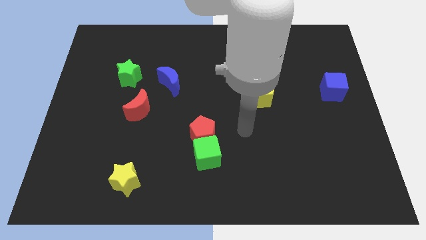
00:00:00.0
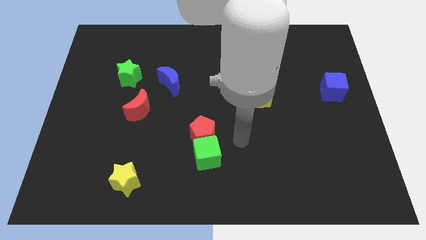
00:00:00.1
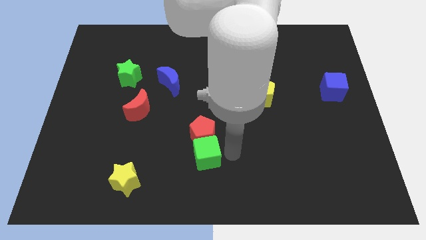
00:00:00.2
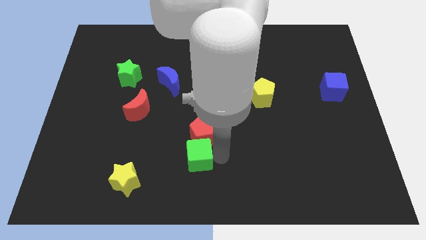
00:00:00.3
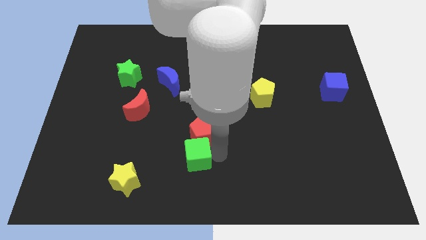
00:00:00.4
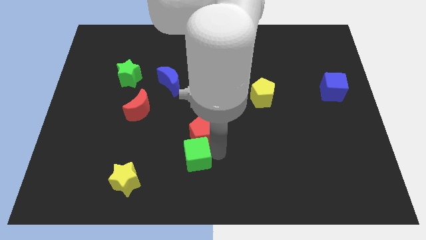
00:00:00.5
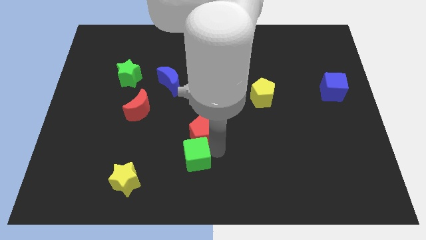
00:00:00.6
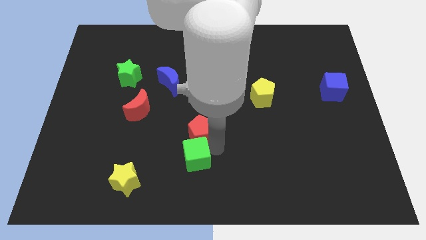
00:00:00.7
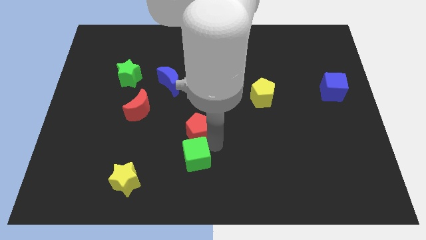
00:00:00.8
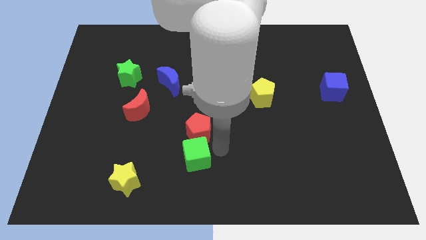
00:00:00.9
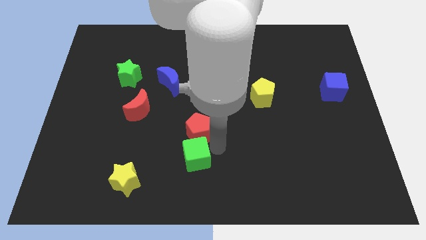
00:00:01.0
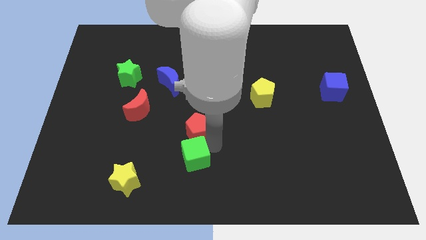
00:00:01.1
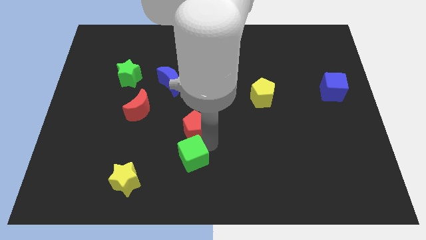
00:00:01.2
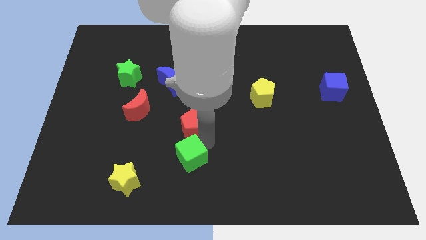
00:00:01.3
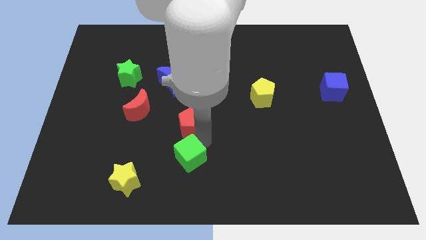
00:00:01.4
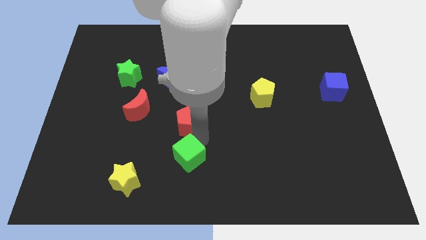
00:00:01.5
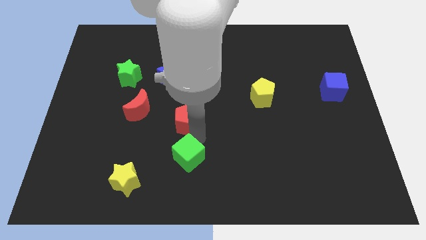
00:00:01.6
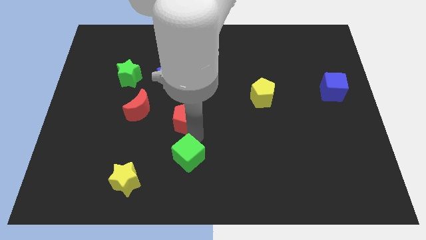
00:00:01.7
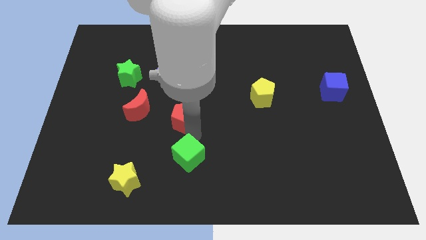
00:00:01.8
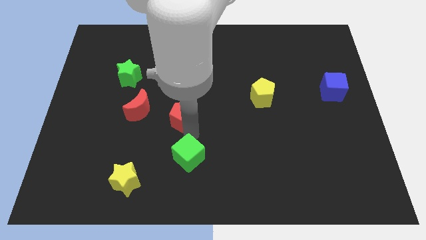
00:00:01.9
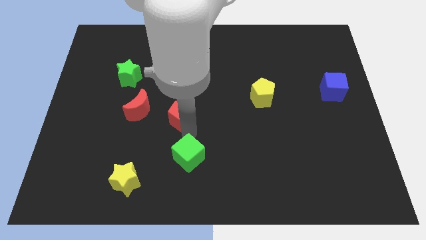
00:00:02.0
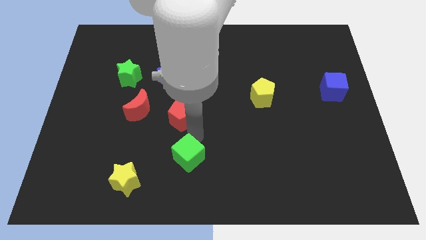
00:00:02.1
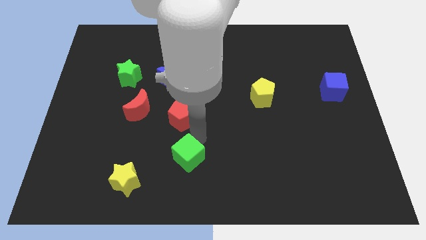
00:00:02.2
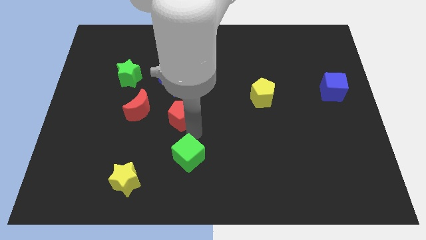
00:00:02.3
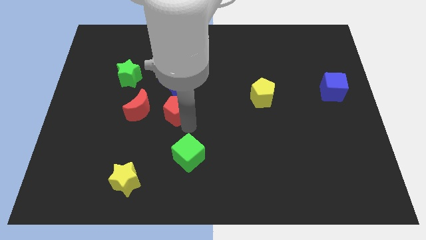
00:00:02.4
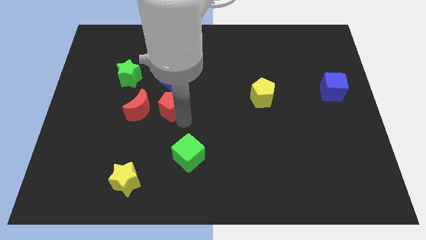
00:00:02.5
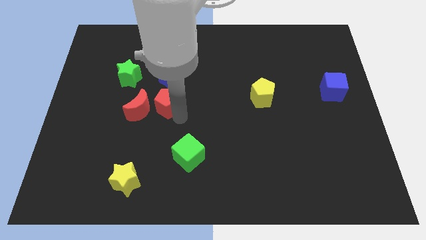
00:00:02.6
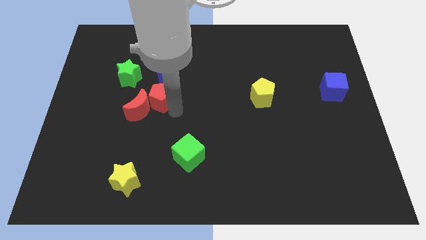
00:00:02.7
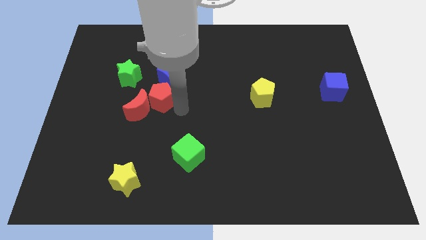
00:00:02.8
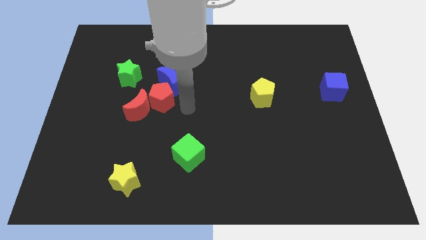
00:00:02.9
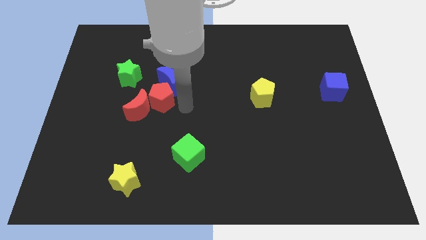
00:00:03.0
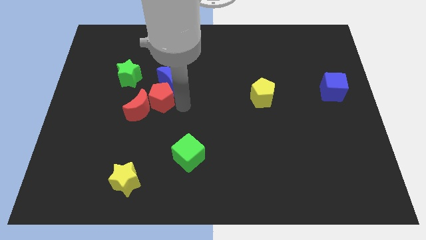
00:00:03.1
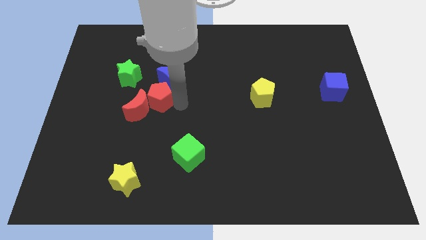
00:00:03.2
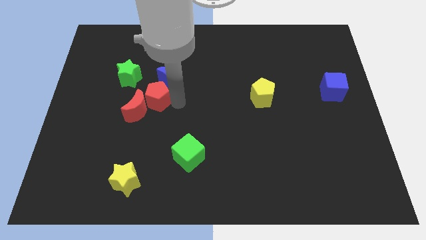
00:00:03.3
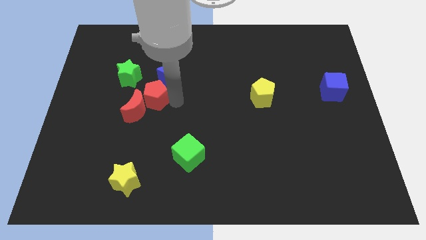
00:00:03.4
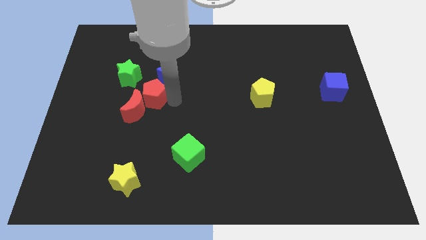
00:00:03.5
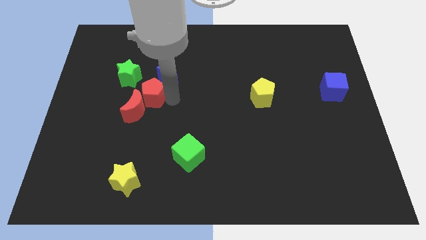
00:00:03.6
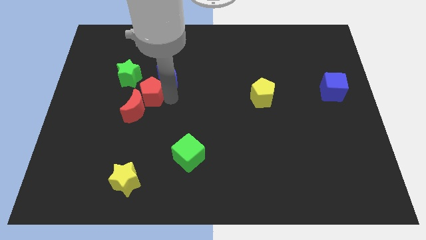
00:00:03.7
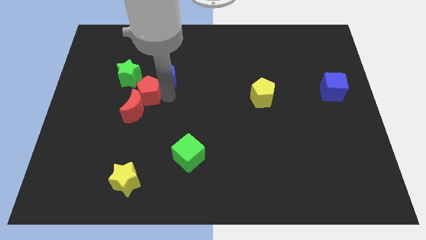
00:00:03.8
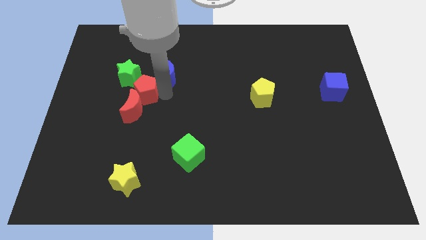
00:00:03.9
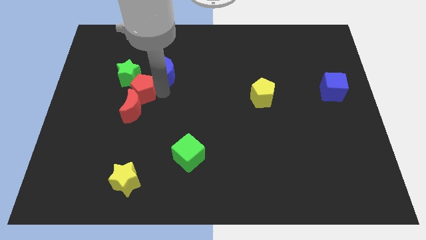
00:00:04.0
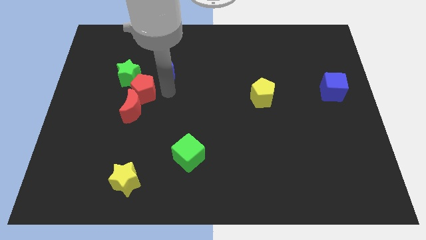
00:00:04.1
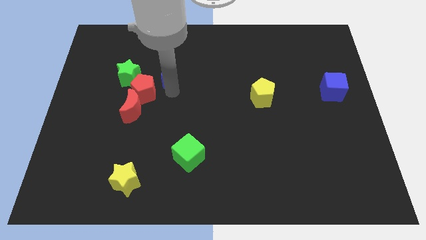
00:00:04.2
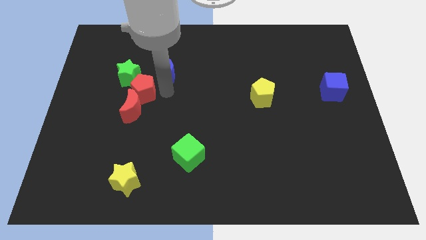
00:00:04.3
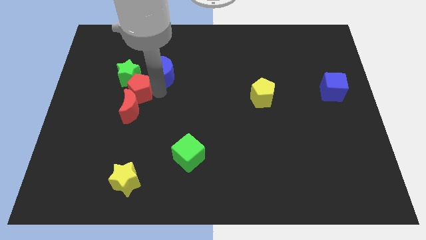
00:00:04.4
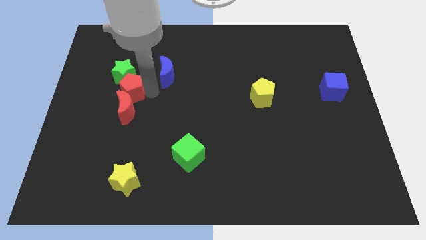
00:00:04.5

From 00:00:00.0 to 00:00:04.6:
slide the red pentagon to the top left of the red moon

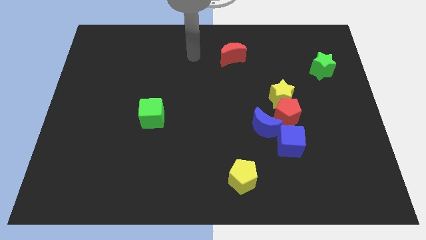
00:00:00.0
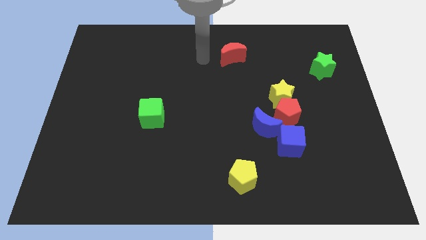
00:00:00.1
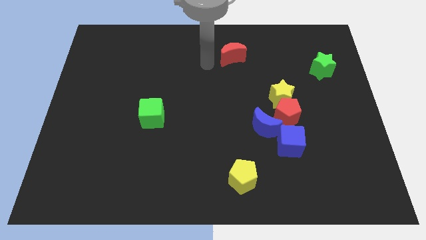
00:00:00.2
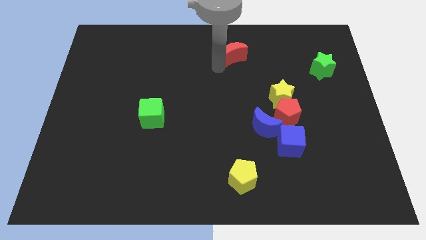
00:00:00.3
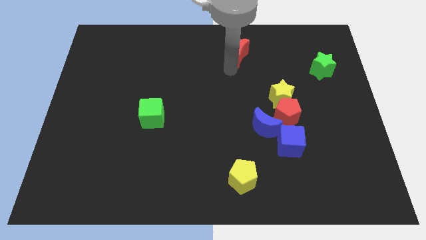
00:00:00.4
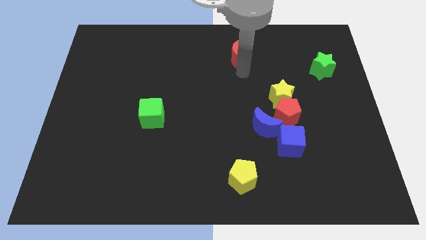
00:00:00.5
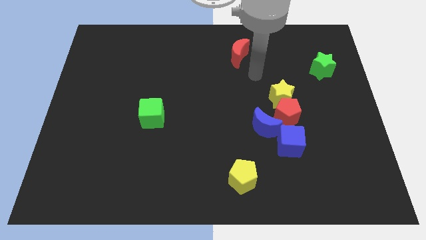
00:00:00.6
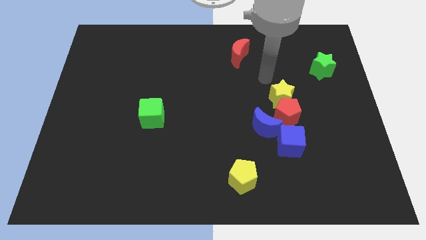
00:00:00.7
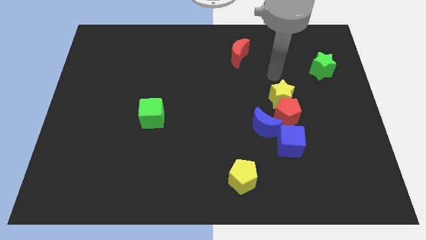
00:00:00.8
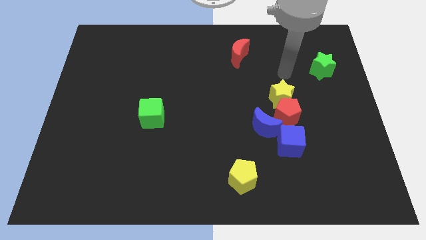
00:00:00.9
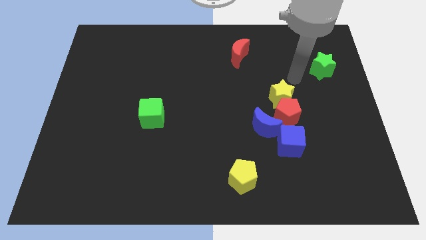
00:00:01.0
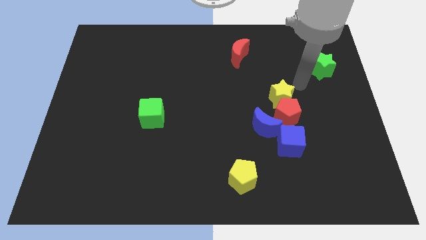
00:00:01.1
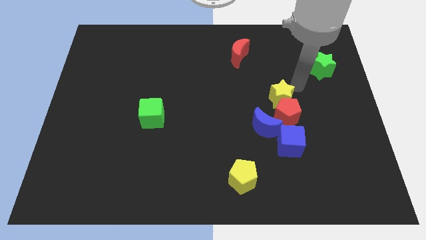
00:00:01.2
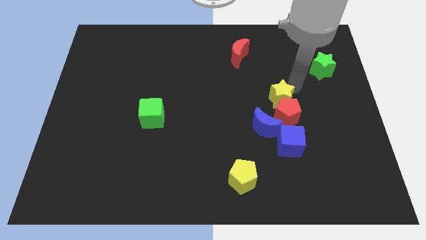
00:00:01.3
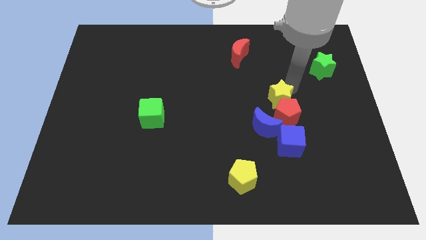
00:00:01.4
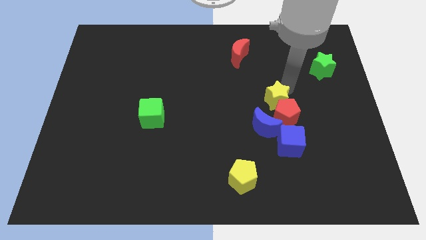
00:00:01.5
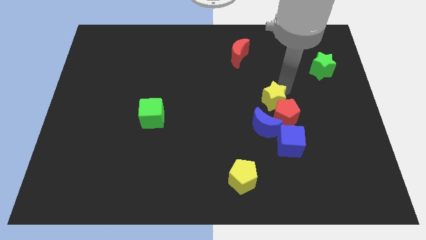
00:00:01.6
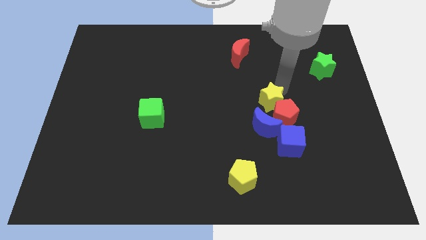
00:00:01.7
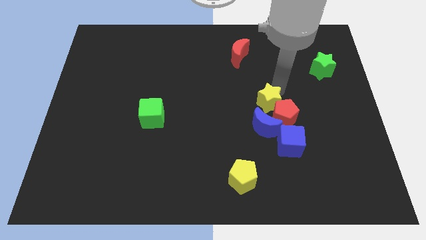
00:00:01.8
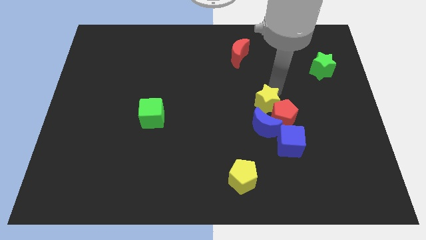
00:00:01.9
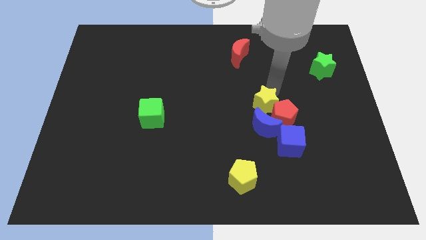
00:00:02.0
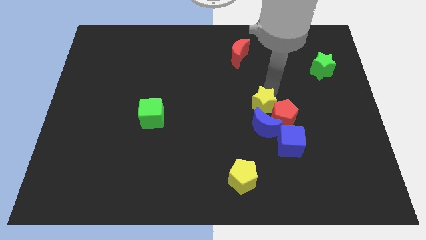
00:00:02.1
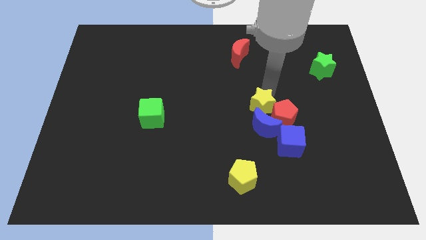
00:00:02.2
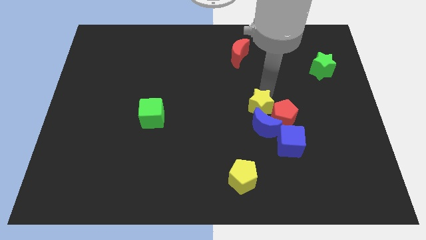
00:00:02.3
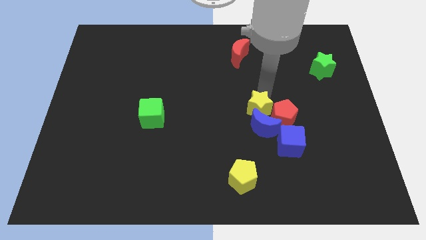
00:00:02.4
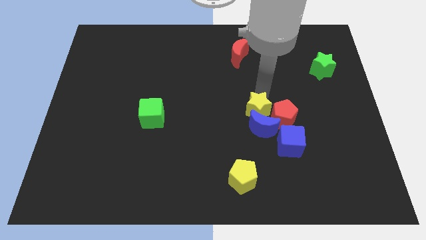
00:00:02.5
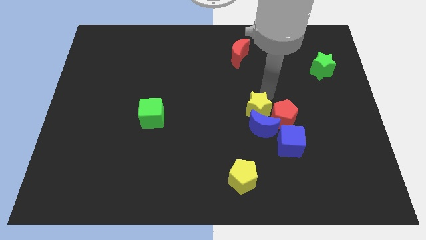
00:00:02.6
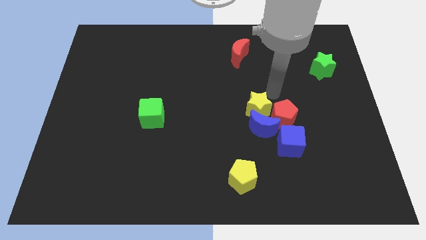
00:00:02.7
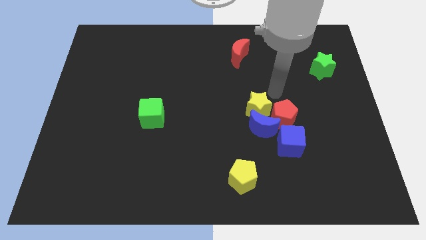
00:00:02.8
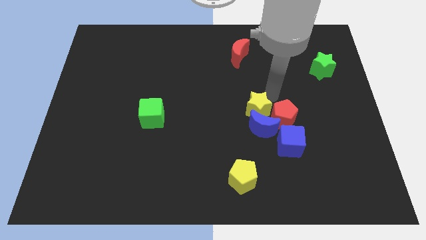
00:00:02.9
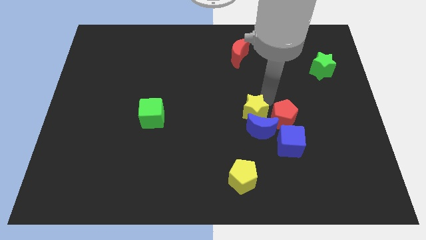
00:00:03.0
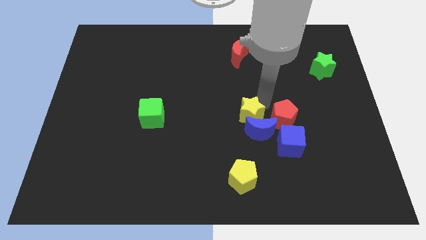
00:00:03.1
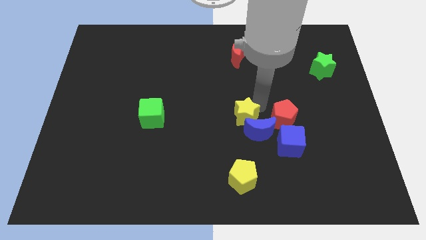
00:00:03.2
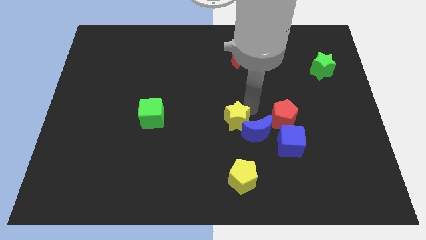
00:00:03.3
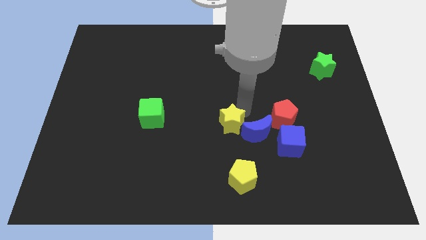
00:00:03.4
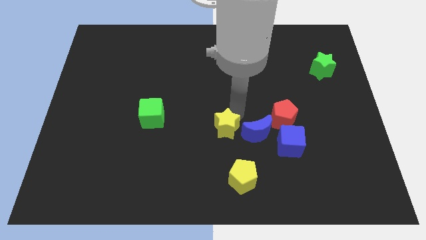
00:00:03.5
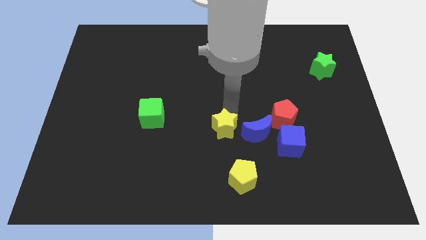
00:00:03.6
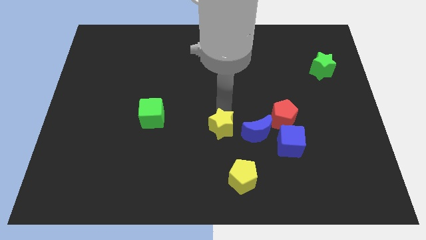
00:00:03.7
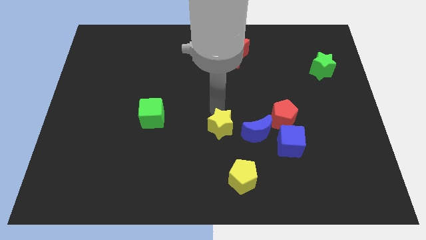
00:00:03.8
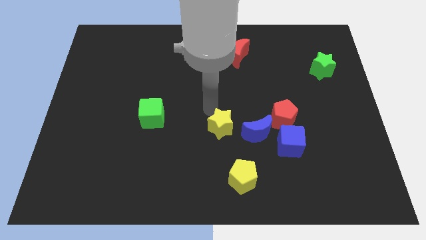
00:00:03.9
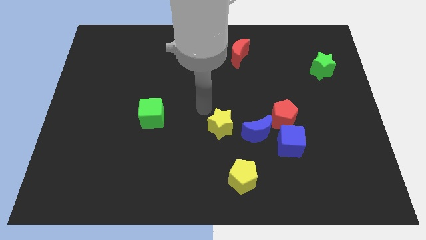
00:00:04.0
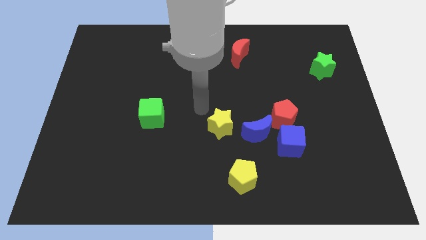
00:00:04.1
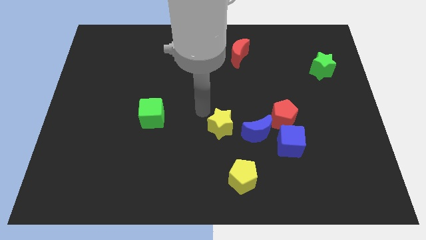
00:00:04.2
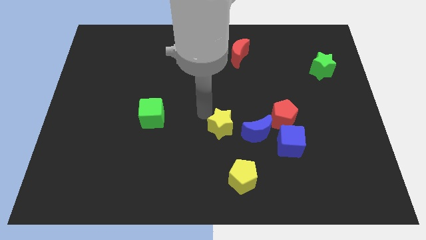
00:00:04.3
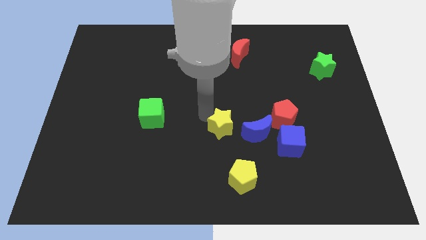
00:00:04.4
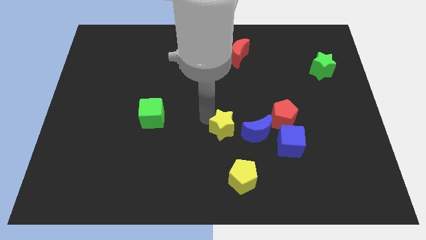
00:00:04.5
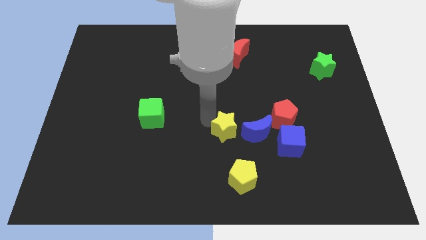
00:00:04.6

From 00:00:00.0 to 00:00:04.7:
put the yellow star to the left of the blue cube
